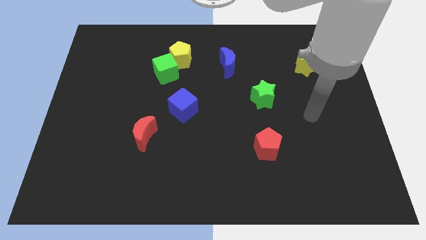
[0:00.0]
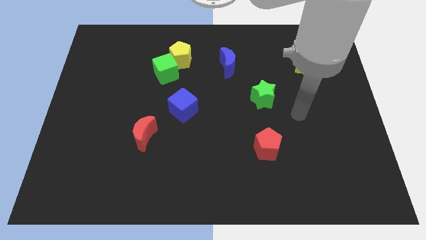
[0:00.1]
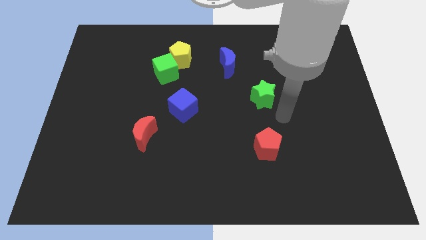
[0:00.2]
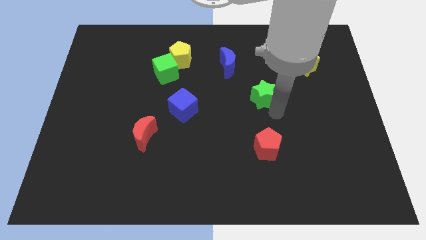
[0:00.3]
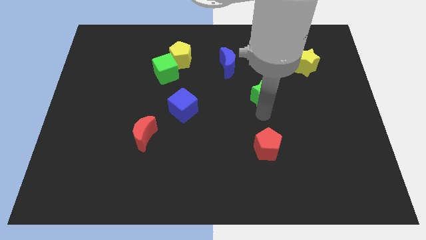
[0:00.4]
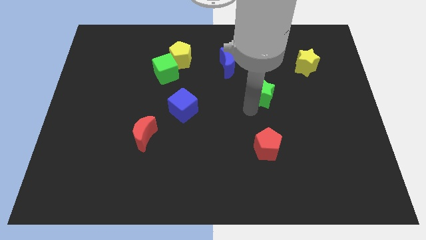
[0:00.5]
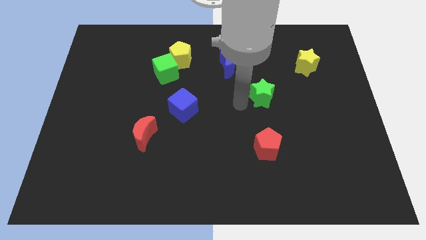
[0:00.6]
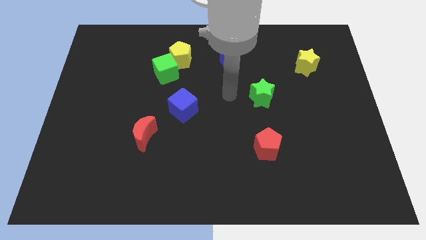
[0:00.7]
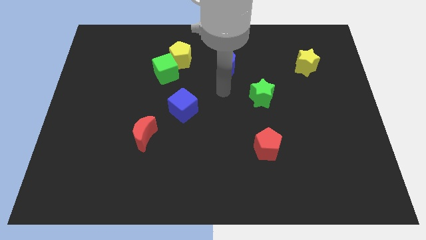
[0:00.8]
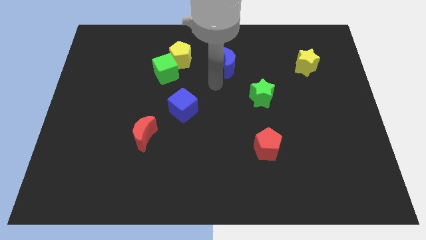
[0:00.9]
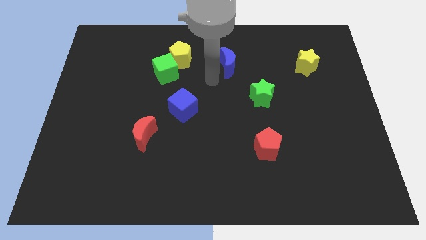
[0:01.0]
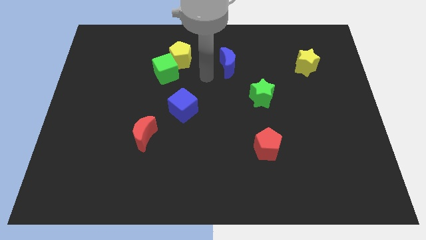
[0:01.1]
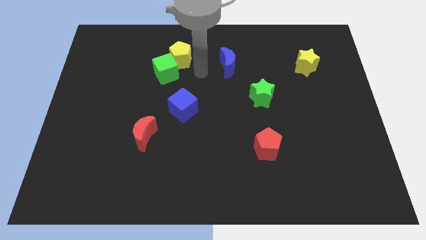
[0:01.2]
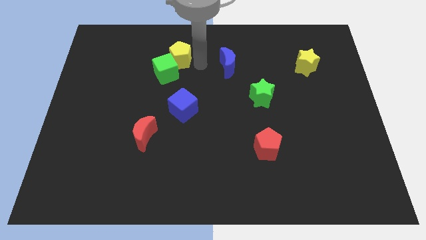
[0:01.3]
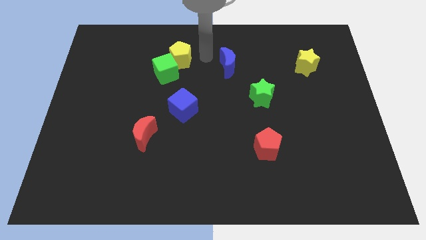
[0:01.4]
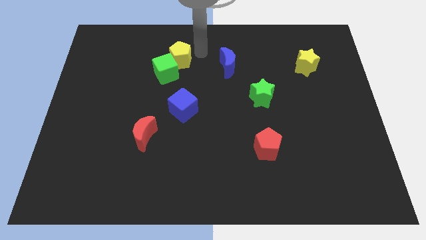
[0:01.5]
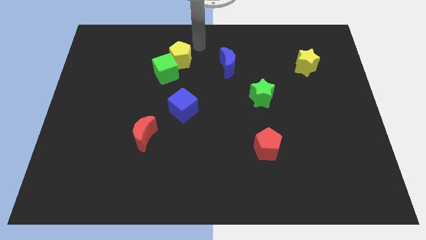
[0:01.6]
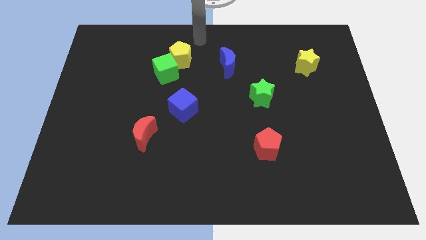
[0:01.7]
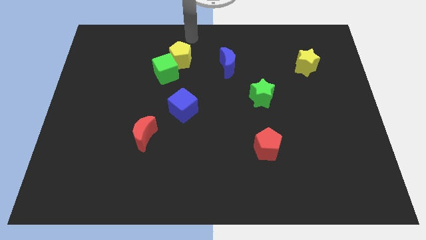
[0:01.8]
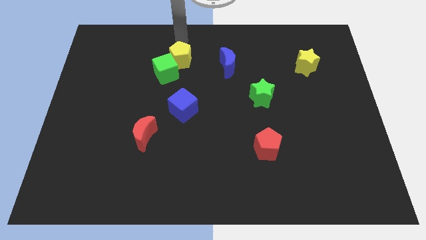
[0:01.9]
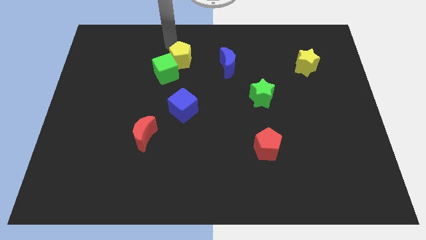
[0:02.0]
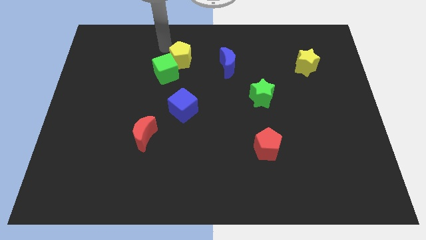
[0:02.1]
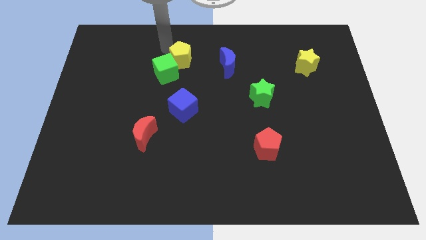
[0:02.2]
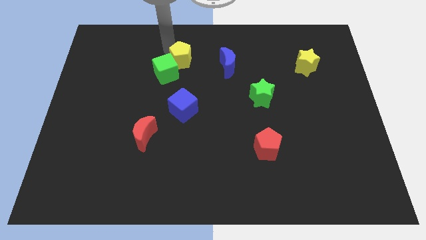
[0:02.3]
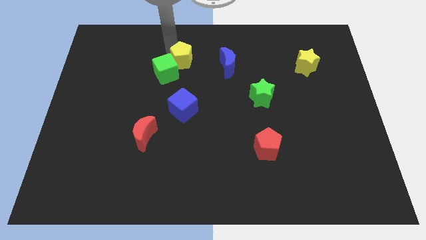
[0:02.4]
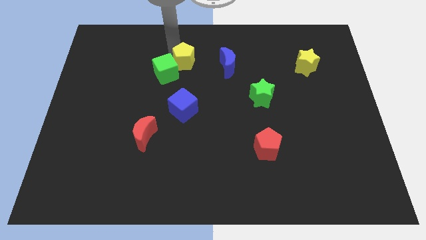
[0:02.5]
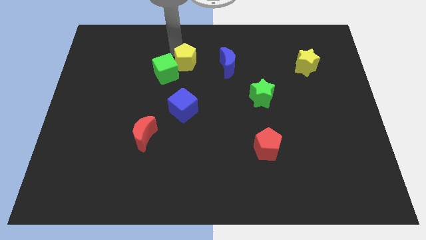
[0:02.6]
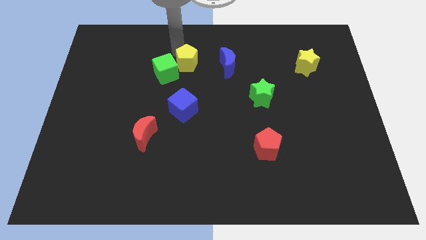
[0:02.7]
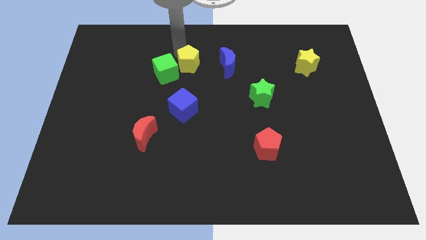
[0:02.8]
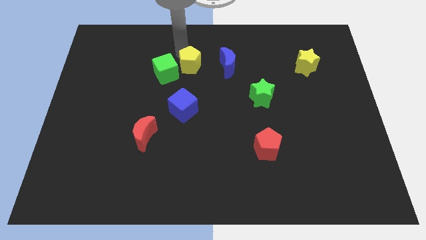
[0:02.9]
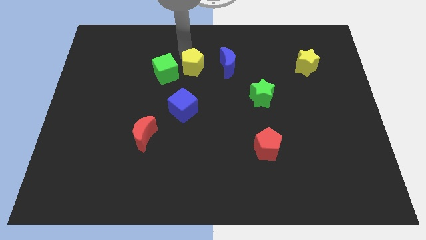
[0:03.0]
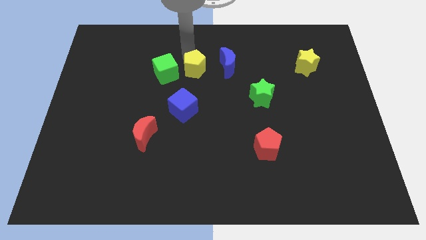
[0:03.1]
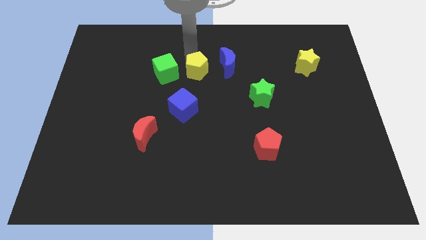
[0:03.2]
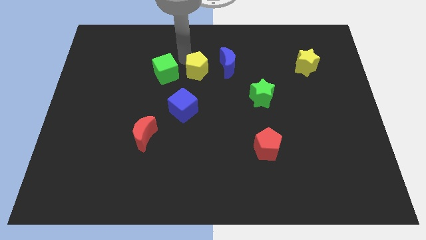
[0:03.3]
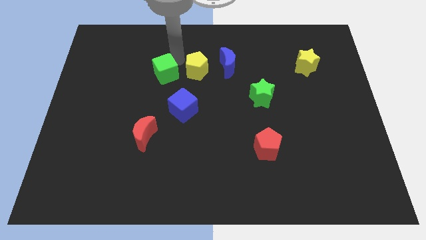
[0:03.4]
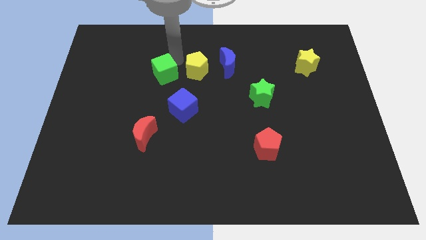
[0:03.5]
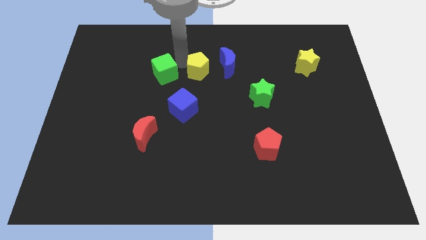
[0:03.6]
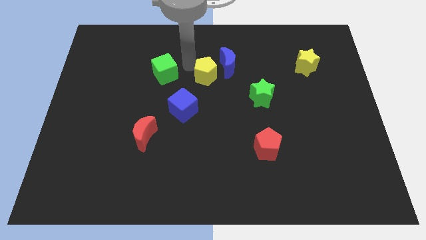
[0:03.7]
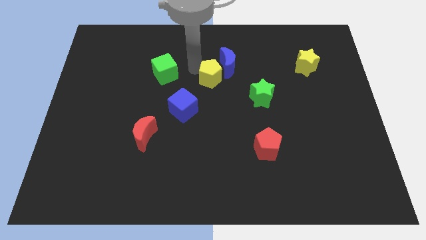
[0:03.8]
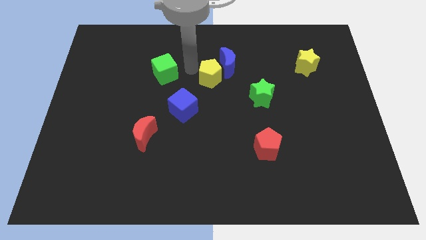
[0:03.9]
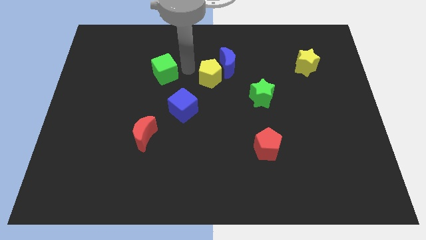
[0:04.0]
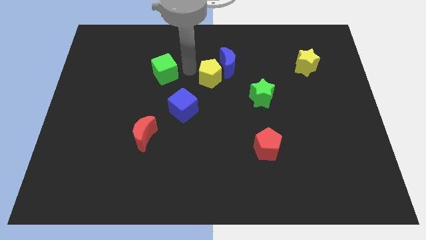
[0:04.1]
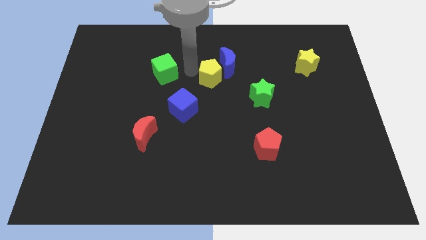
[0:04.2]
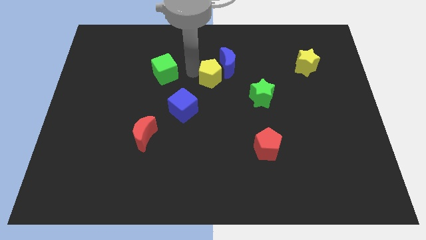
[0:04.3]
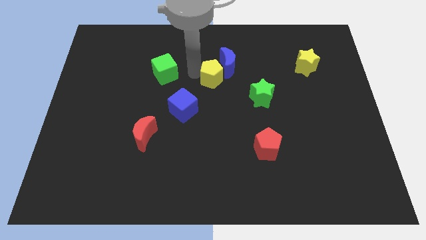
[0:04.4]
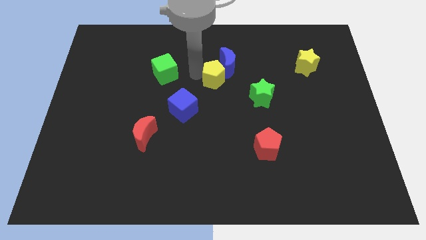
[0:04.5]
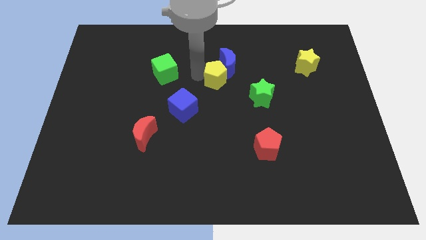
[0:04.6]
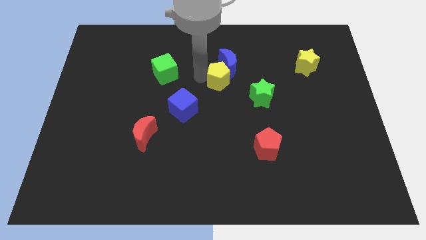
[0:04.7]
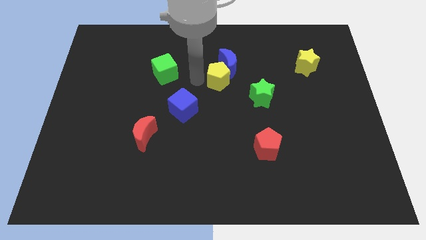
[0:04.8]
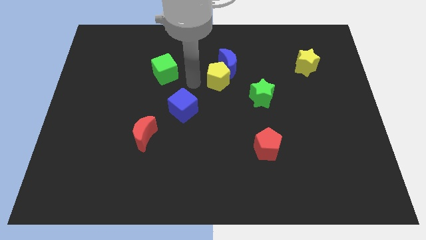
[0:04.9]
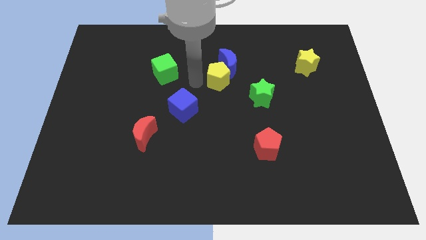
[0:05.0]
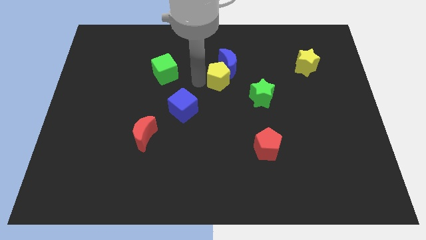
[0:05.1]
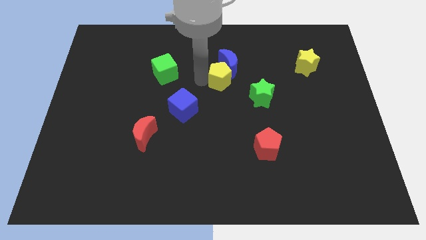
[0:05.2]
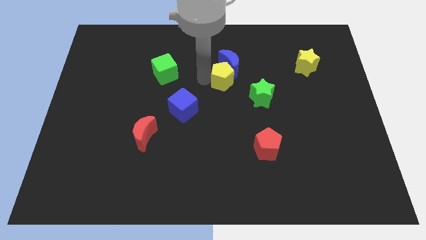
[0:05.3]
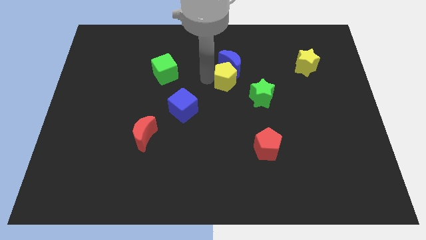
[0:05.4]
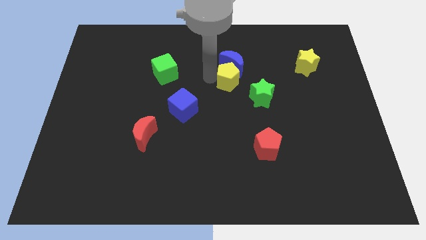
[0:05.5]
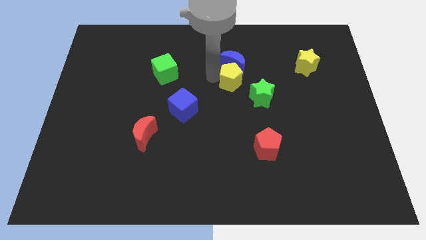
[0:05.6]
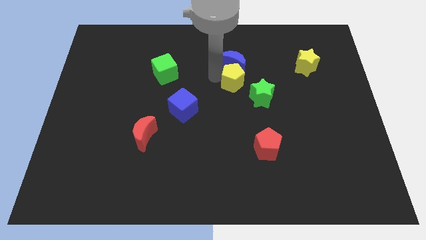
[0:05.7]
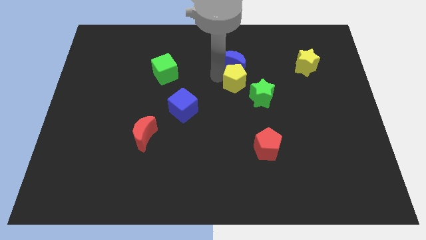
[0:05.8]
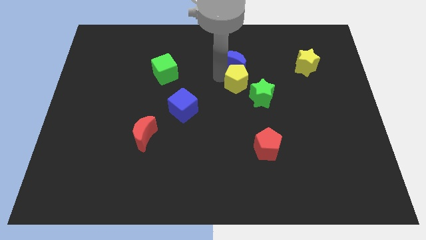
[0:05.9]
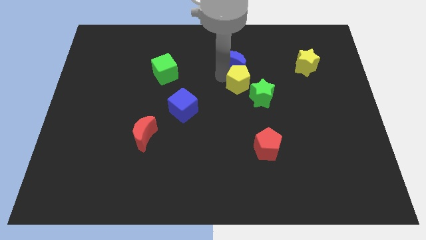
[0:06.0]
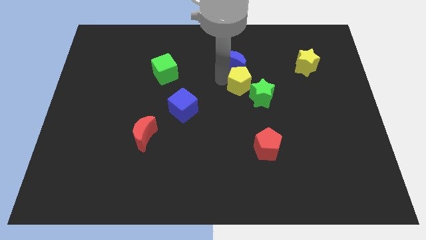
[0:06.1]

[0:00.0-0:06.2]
move the yellow pentagon above the green star

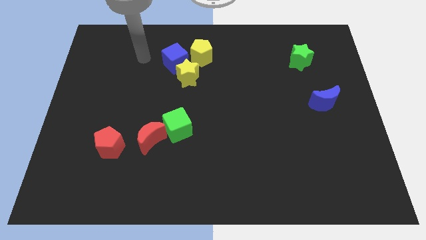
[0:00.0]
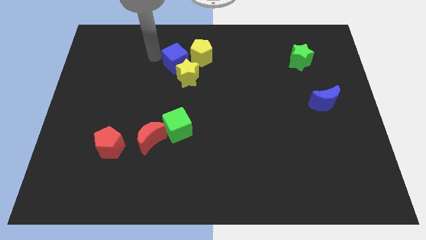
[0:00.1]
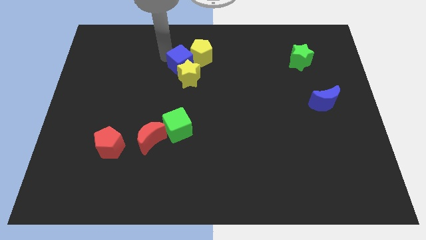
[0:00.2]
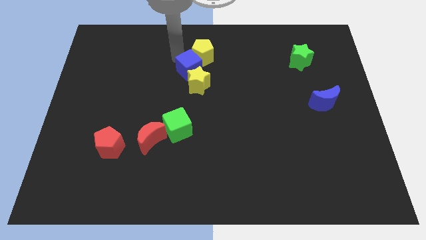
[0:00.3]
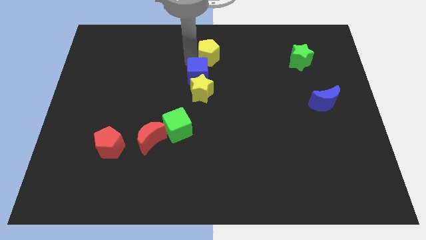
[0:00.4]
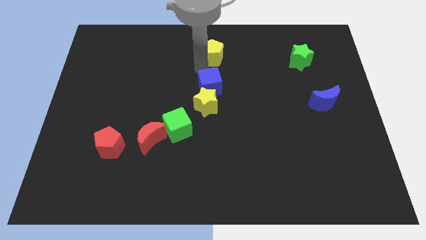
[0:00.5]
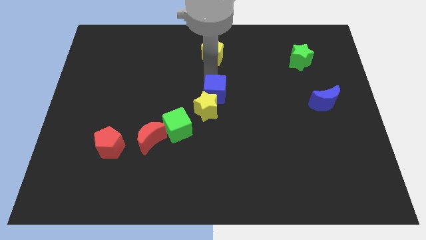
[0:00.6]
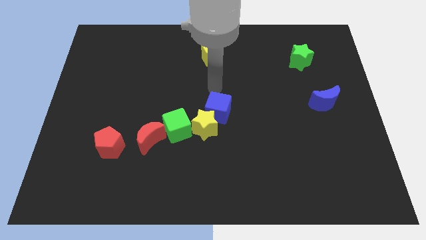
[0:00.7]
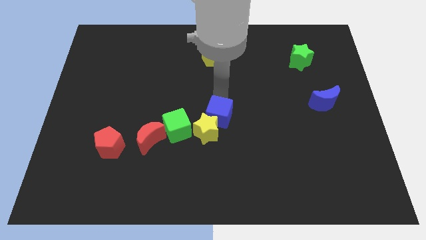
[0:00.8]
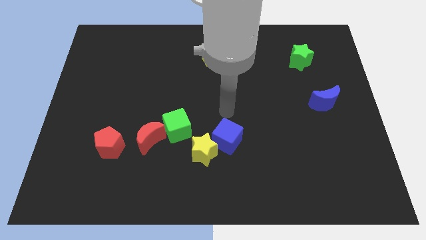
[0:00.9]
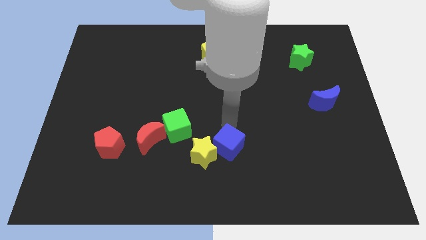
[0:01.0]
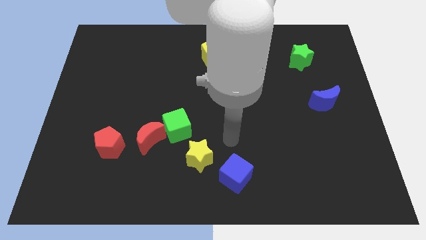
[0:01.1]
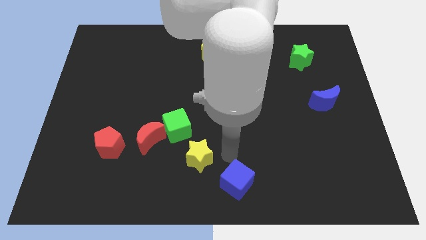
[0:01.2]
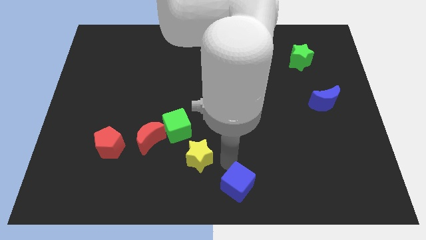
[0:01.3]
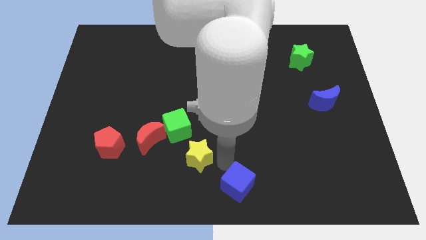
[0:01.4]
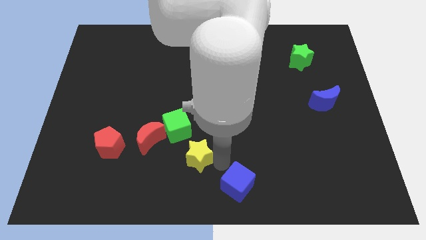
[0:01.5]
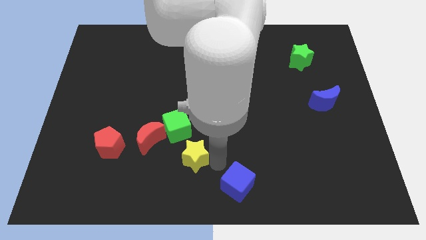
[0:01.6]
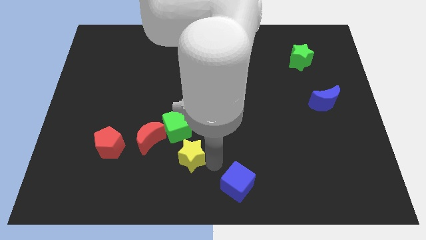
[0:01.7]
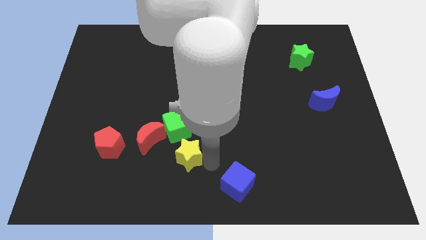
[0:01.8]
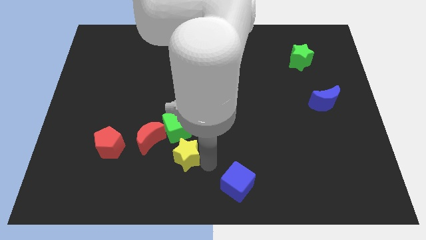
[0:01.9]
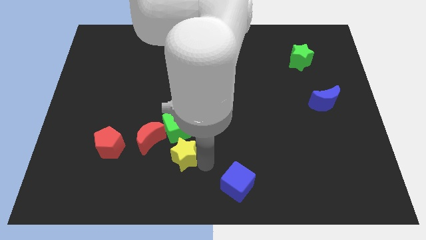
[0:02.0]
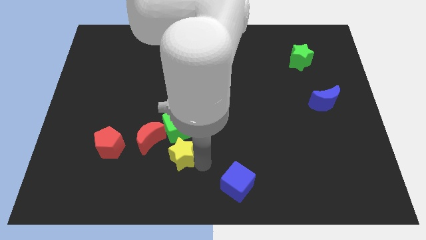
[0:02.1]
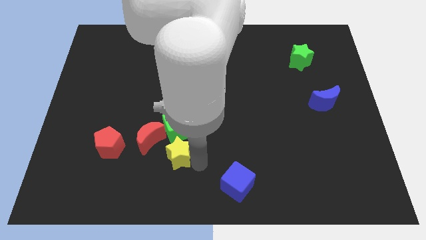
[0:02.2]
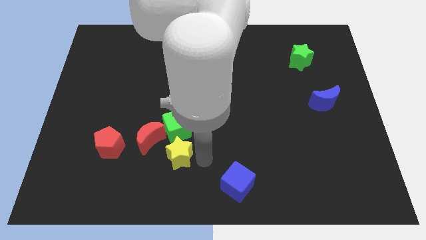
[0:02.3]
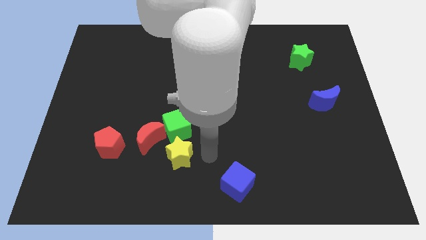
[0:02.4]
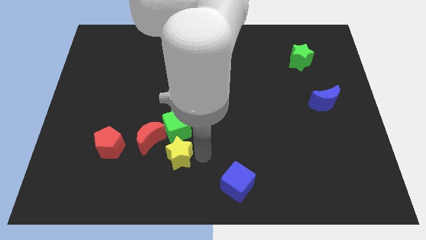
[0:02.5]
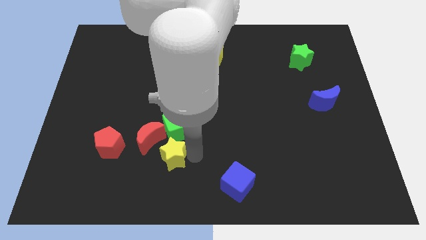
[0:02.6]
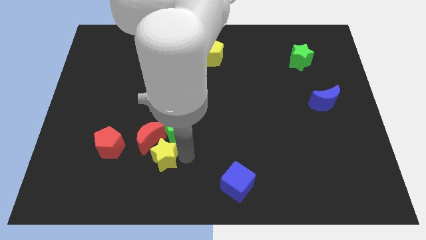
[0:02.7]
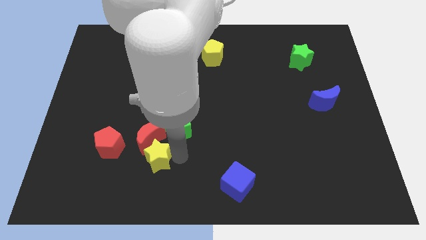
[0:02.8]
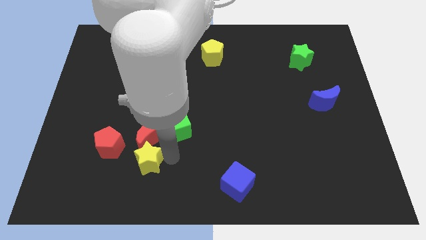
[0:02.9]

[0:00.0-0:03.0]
put the yellow star to the bottom left of the red moon
